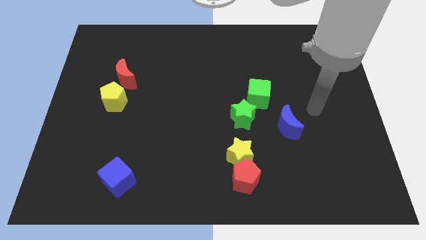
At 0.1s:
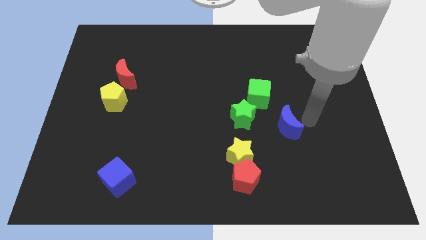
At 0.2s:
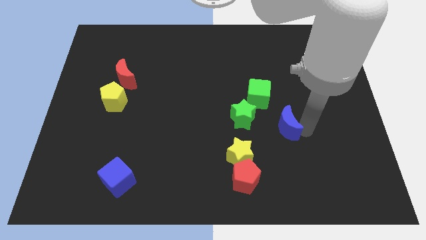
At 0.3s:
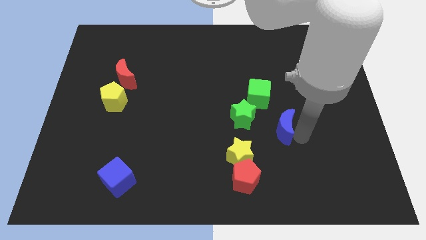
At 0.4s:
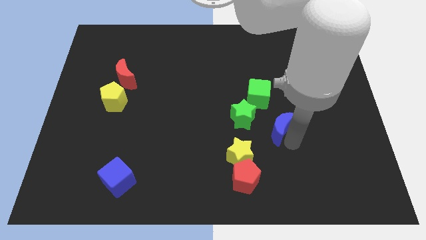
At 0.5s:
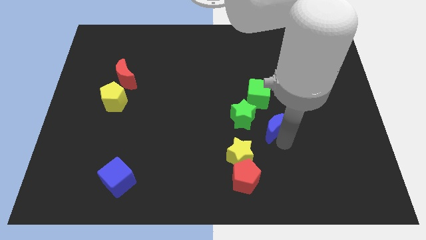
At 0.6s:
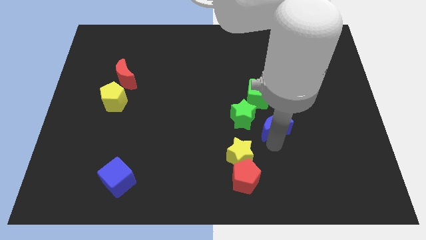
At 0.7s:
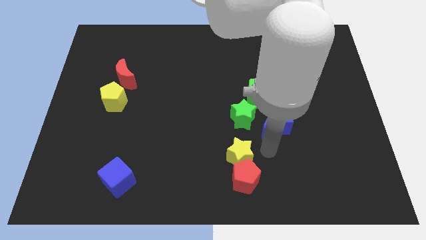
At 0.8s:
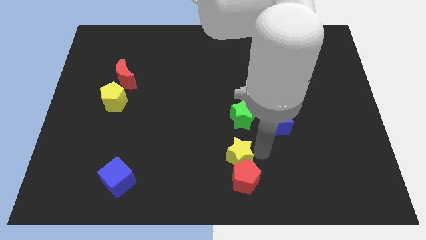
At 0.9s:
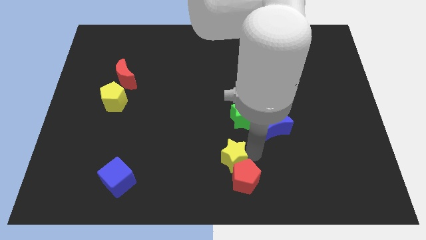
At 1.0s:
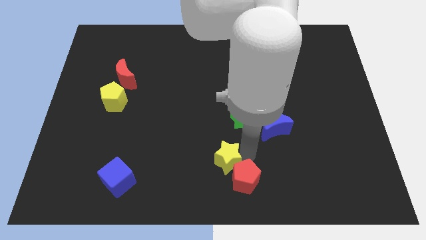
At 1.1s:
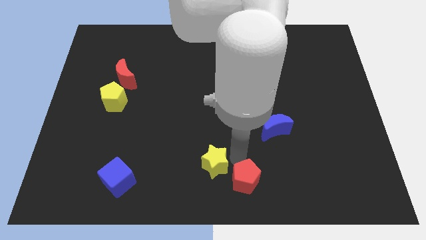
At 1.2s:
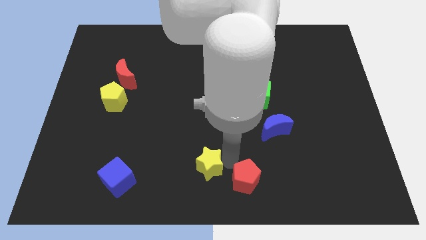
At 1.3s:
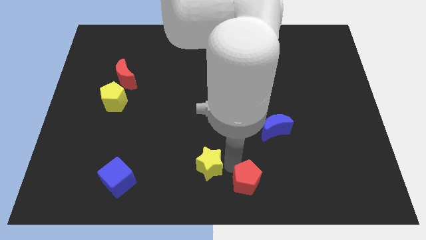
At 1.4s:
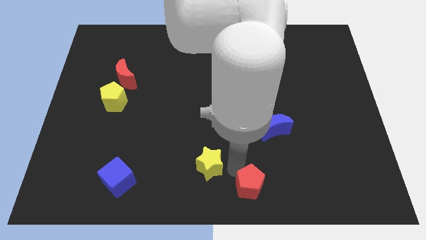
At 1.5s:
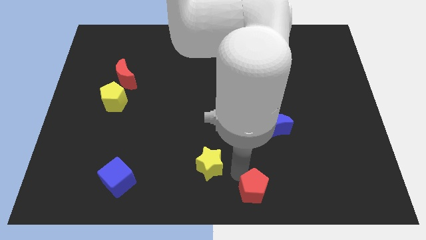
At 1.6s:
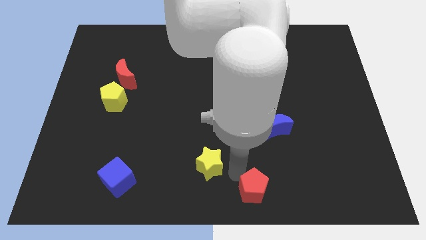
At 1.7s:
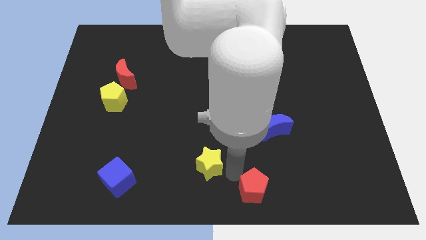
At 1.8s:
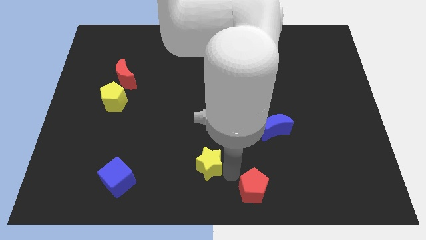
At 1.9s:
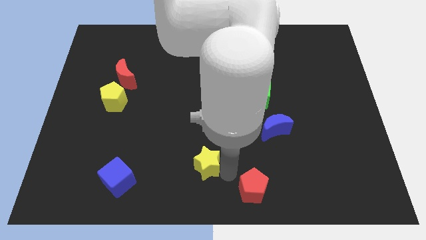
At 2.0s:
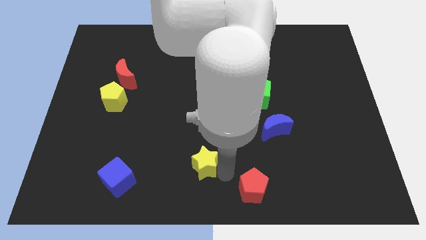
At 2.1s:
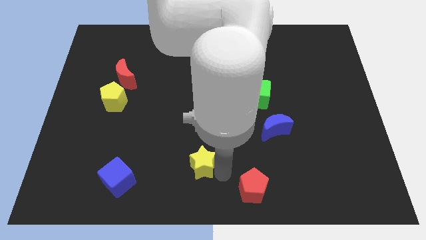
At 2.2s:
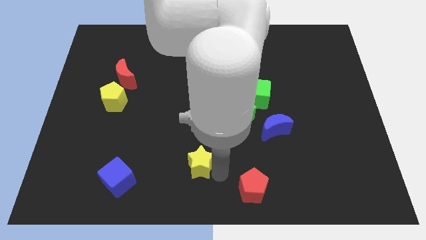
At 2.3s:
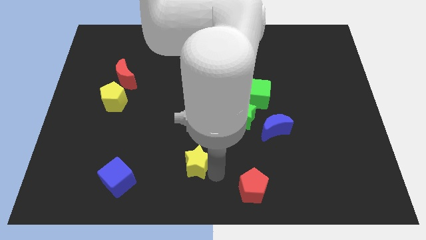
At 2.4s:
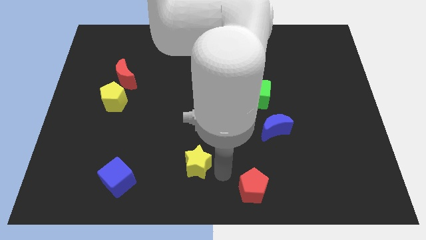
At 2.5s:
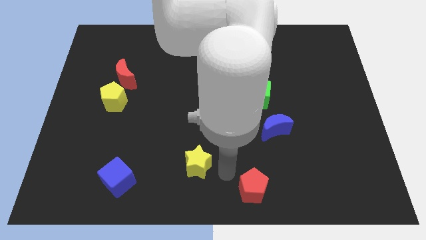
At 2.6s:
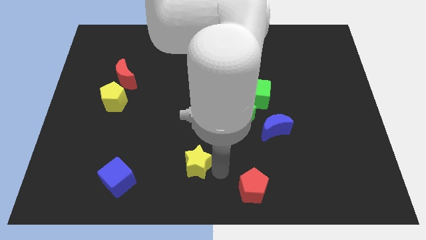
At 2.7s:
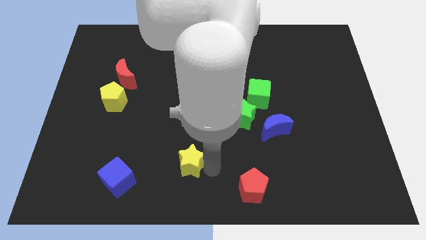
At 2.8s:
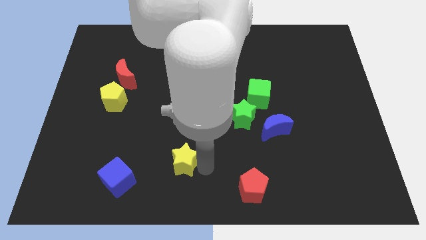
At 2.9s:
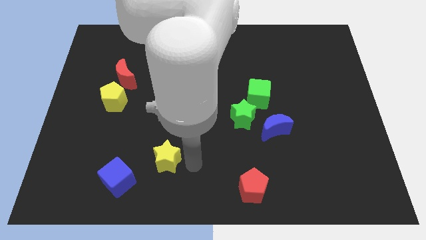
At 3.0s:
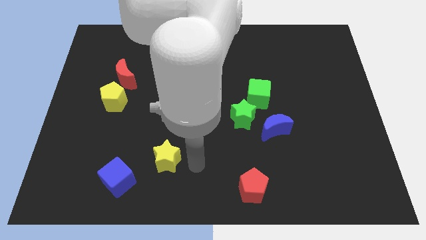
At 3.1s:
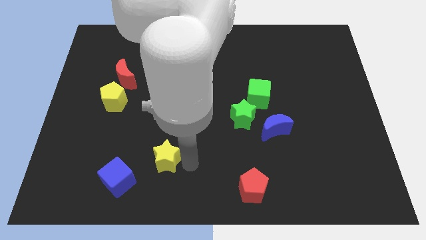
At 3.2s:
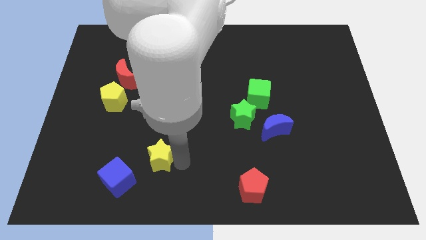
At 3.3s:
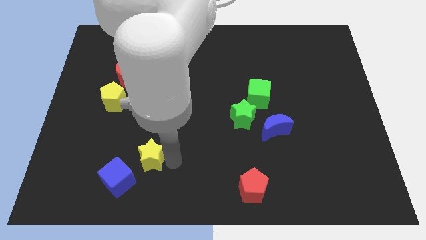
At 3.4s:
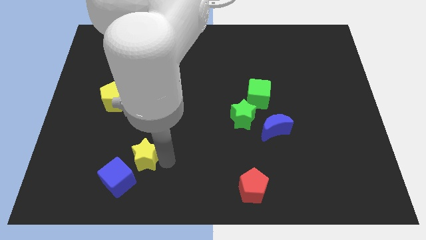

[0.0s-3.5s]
move the yellow star to the left

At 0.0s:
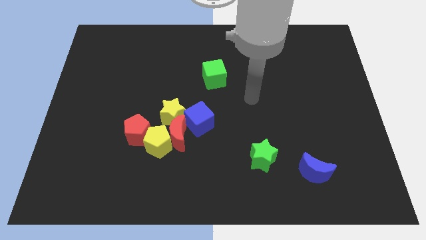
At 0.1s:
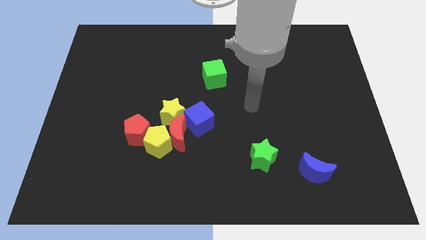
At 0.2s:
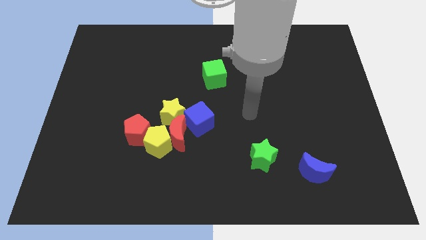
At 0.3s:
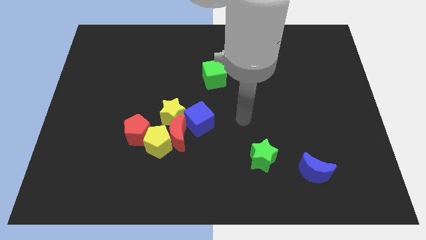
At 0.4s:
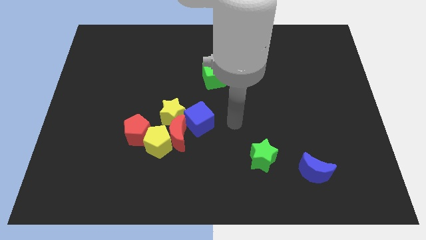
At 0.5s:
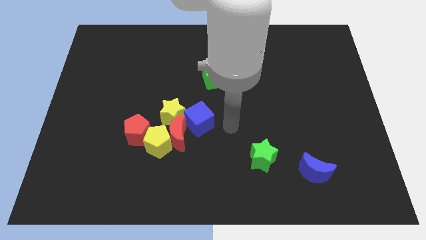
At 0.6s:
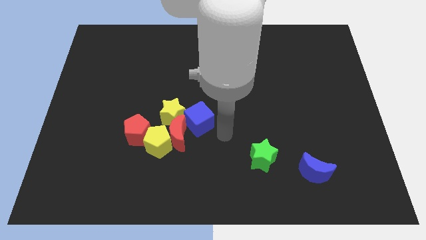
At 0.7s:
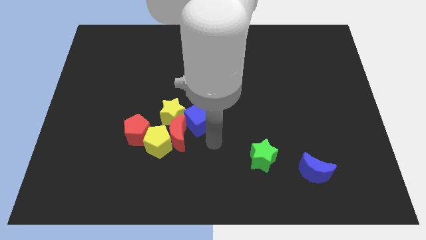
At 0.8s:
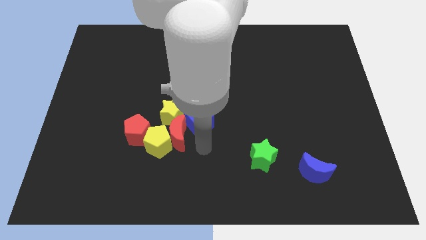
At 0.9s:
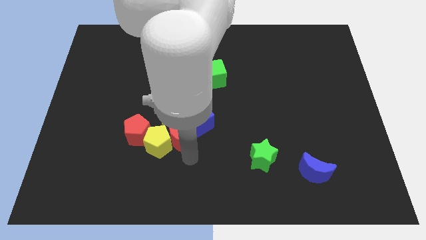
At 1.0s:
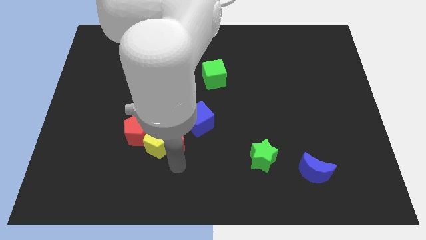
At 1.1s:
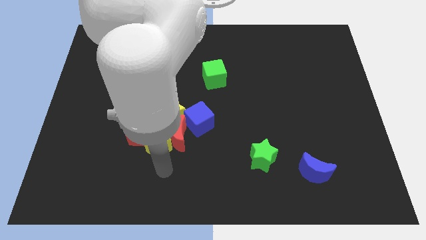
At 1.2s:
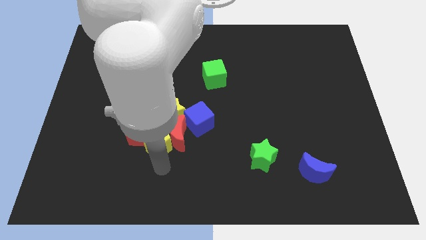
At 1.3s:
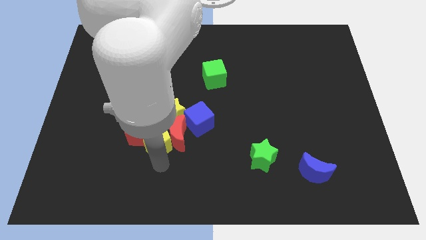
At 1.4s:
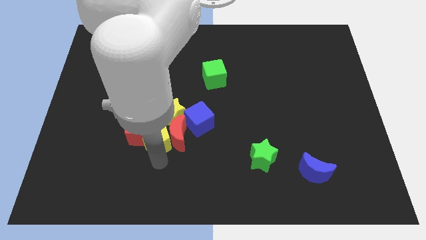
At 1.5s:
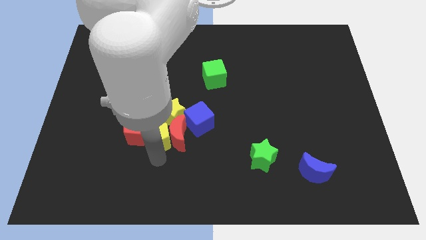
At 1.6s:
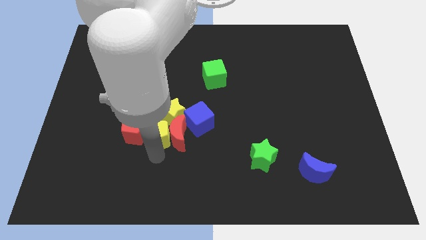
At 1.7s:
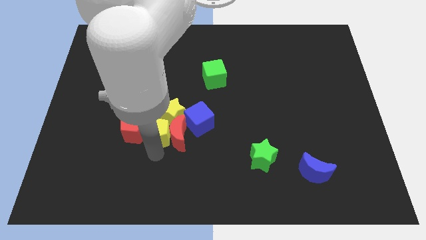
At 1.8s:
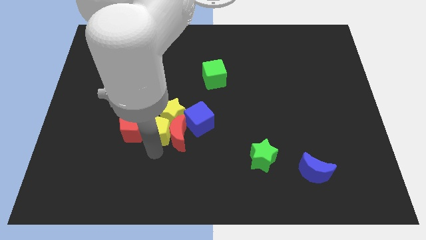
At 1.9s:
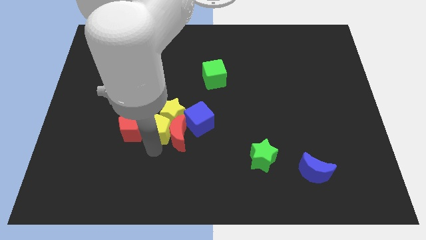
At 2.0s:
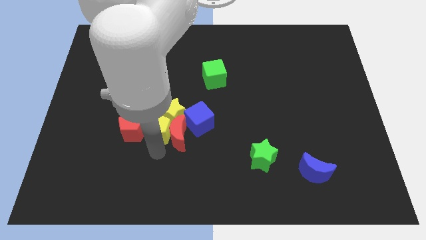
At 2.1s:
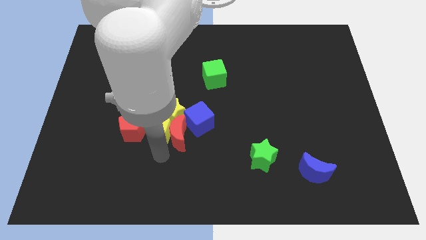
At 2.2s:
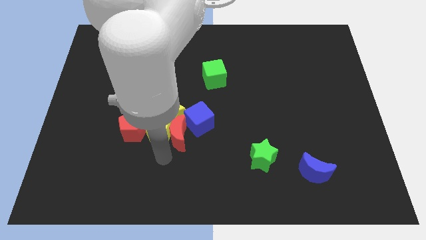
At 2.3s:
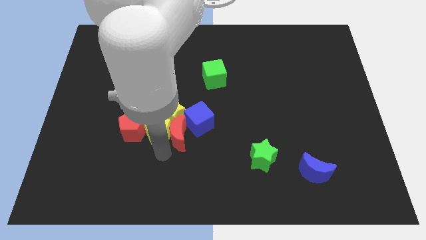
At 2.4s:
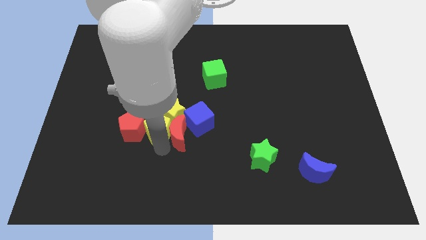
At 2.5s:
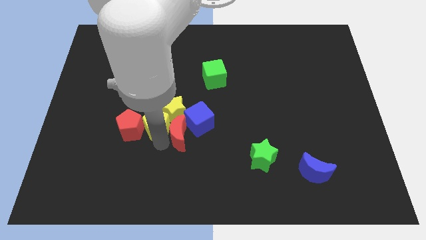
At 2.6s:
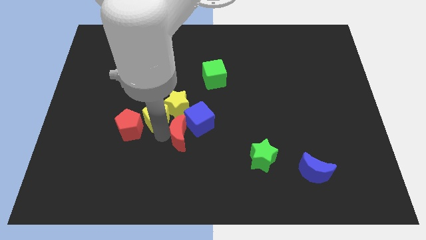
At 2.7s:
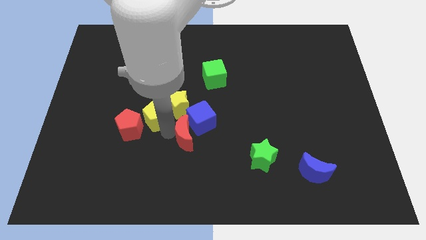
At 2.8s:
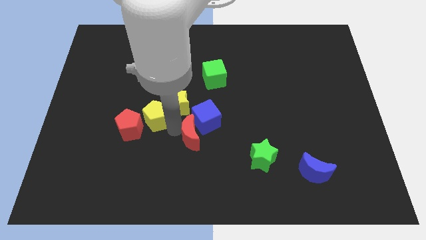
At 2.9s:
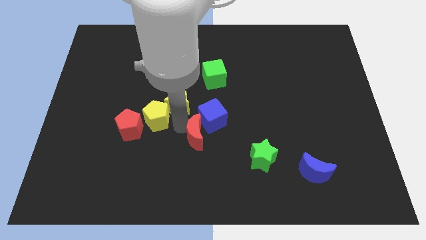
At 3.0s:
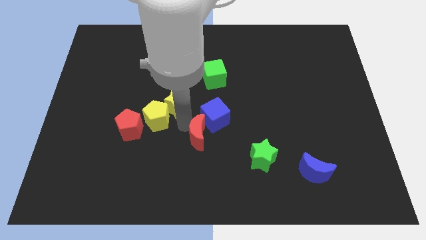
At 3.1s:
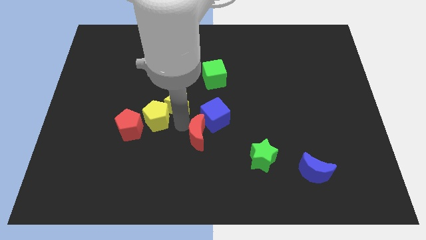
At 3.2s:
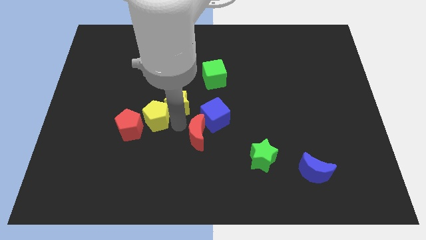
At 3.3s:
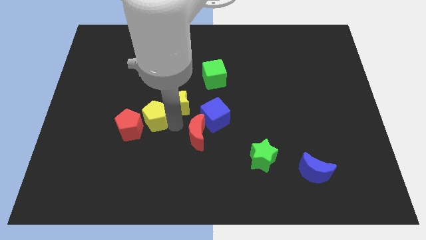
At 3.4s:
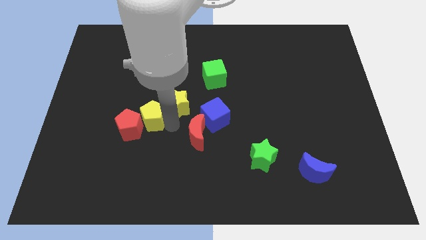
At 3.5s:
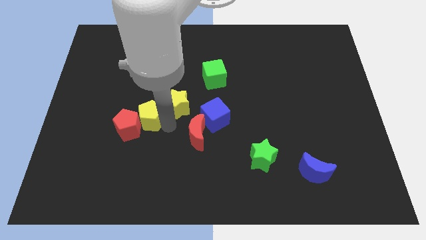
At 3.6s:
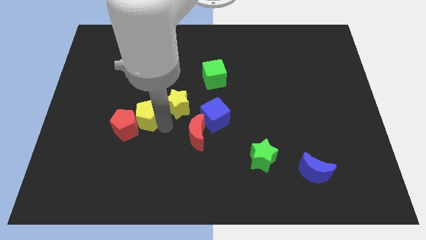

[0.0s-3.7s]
move the yellow pentagon upwards and to the left diagonally somewhat

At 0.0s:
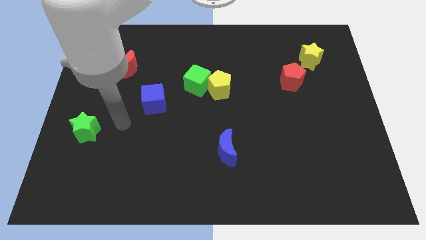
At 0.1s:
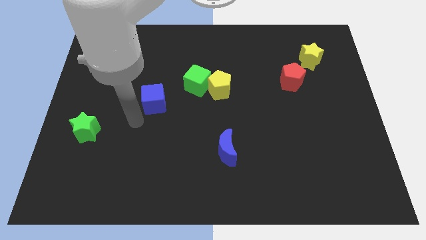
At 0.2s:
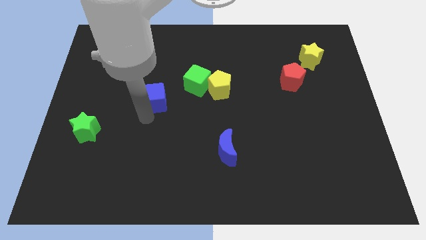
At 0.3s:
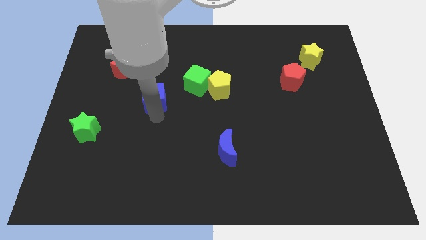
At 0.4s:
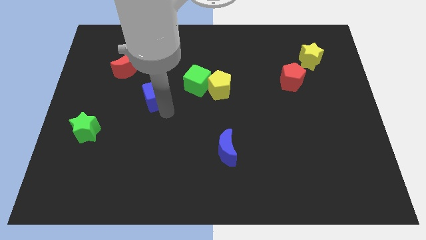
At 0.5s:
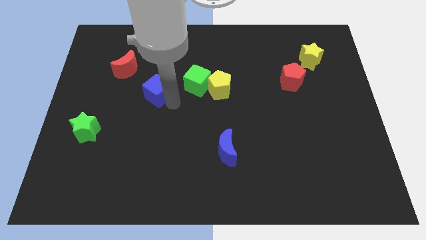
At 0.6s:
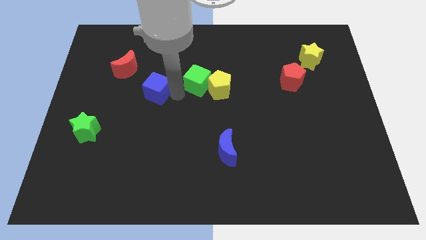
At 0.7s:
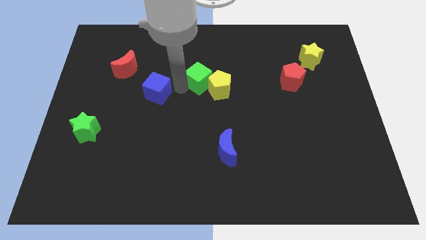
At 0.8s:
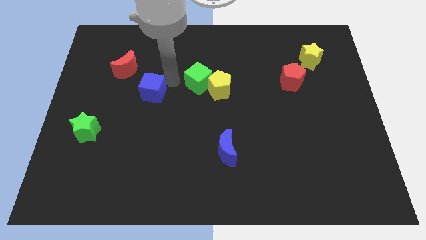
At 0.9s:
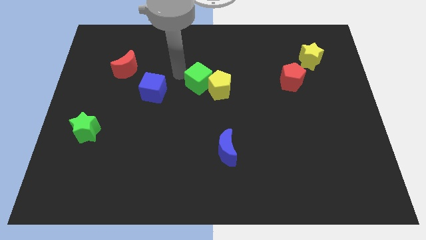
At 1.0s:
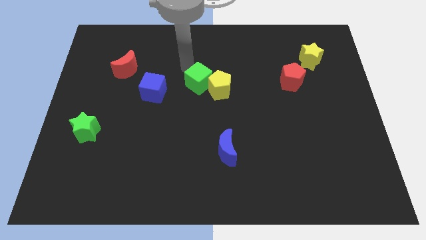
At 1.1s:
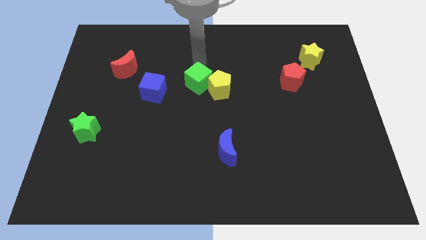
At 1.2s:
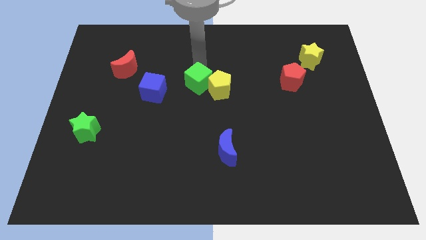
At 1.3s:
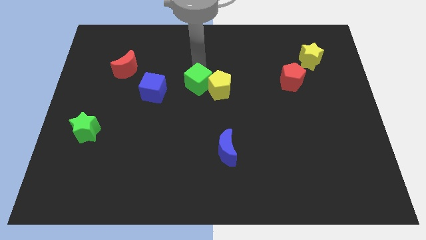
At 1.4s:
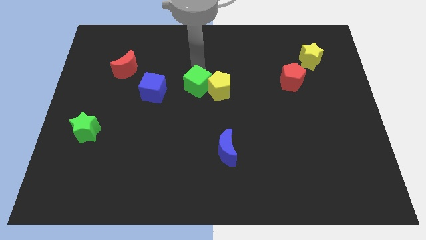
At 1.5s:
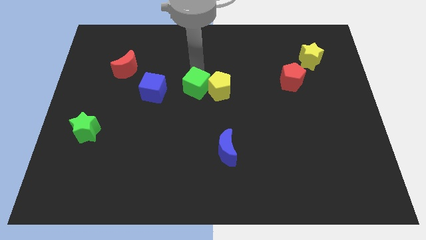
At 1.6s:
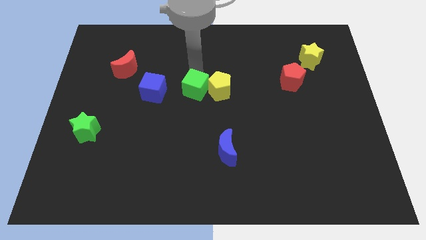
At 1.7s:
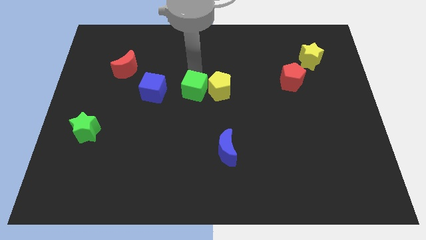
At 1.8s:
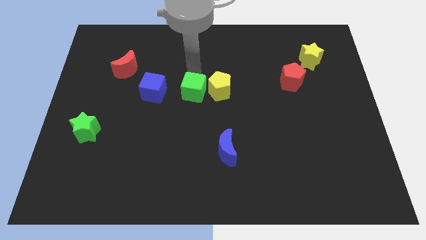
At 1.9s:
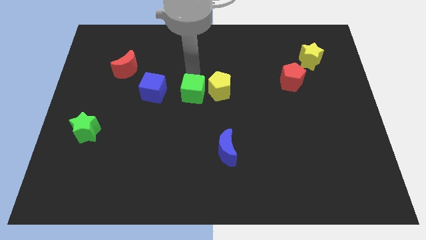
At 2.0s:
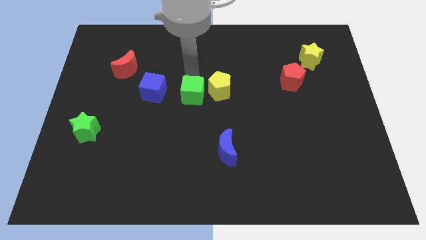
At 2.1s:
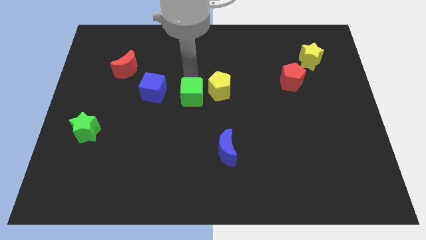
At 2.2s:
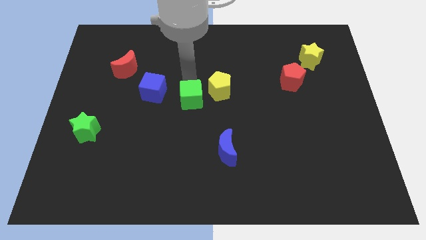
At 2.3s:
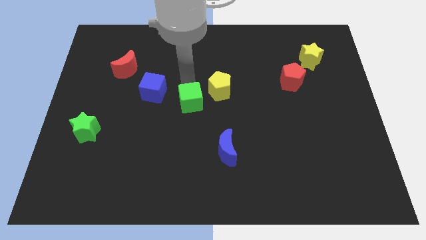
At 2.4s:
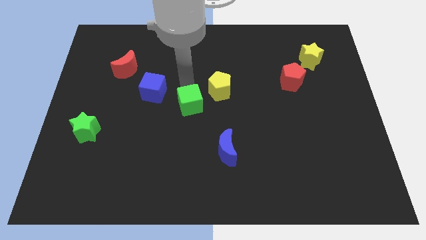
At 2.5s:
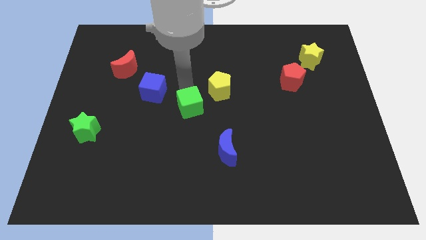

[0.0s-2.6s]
move the green cube downwards a little bit
